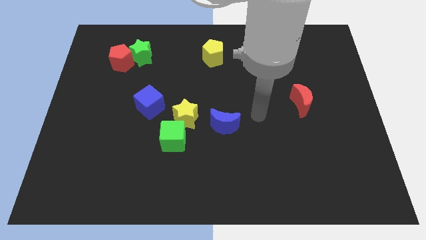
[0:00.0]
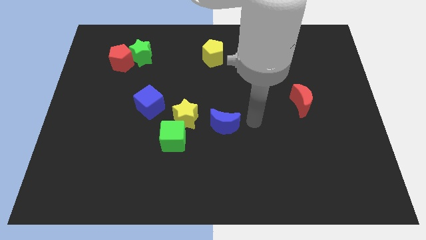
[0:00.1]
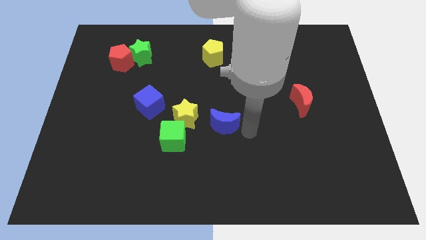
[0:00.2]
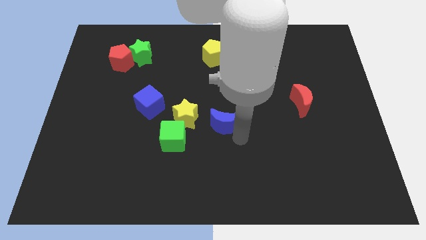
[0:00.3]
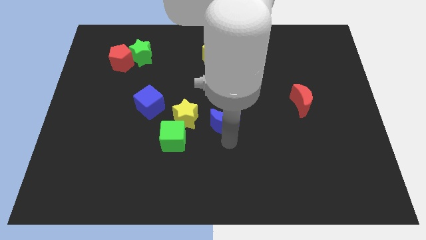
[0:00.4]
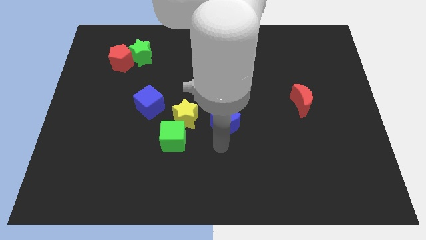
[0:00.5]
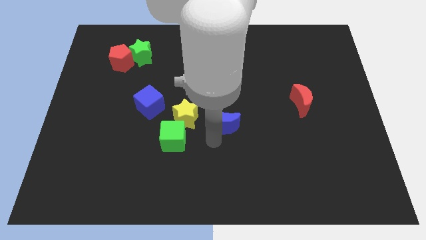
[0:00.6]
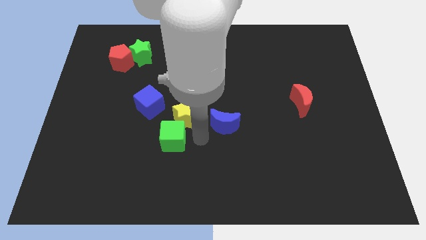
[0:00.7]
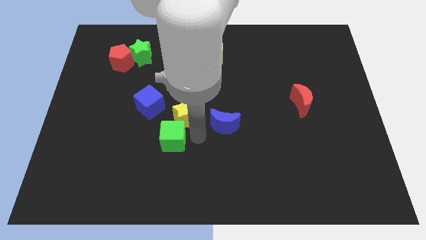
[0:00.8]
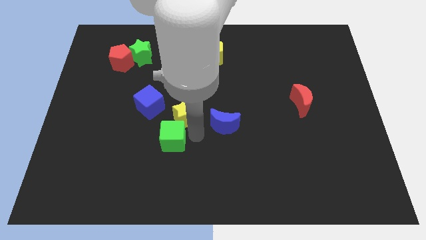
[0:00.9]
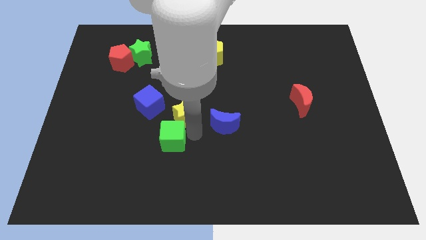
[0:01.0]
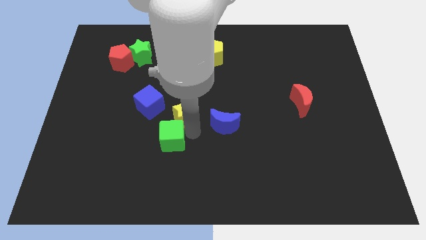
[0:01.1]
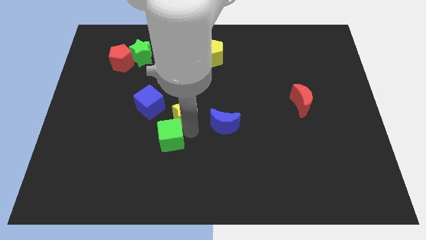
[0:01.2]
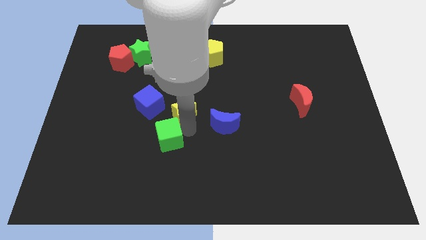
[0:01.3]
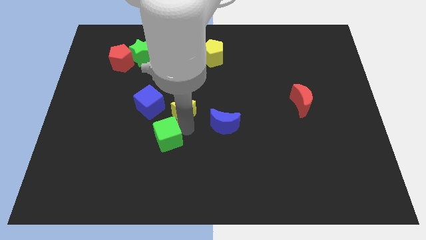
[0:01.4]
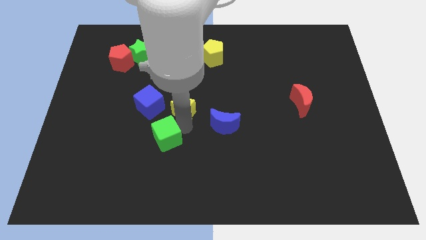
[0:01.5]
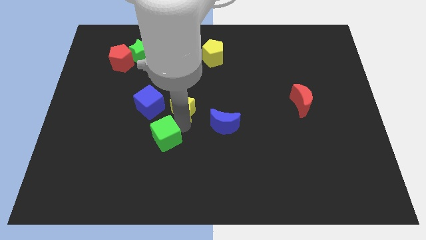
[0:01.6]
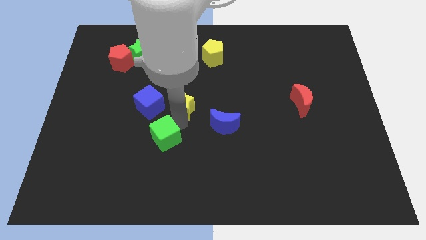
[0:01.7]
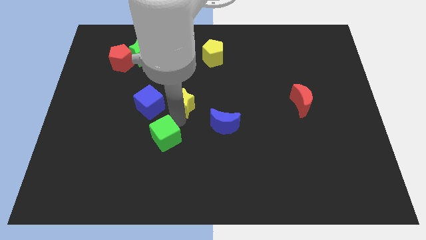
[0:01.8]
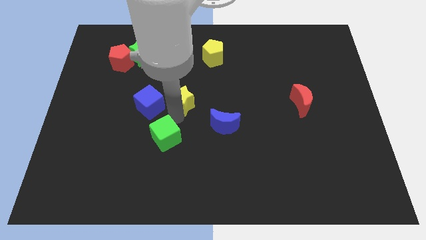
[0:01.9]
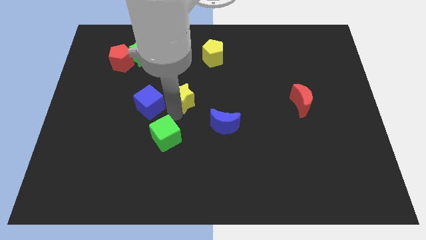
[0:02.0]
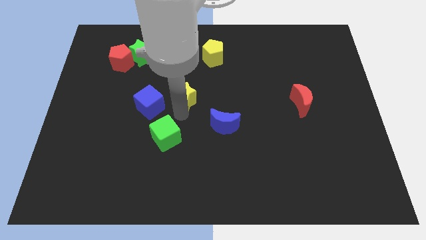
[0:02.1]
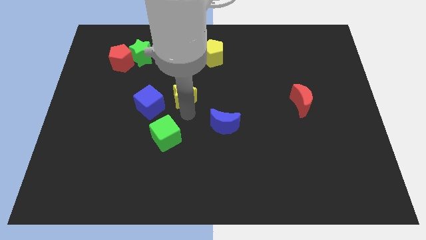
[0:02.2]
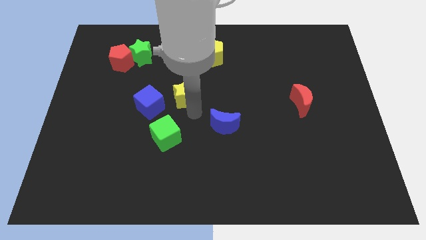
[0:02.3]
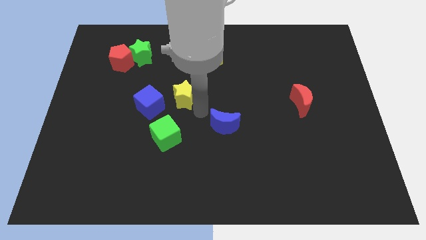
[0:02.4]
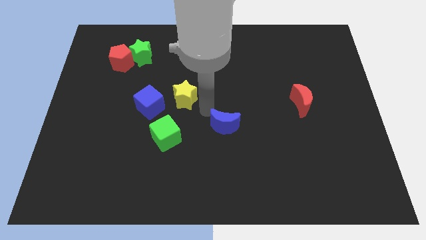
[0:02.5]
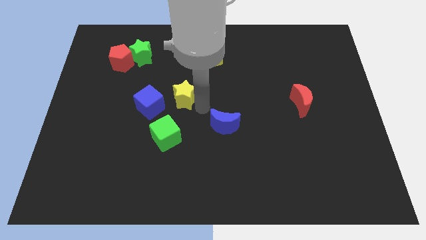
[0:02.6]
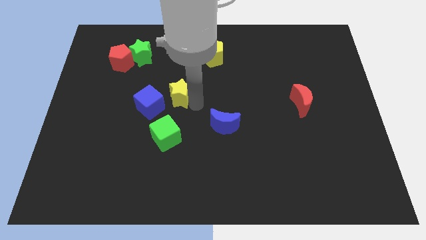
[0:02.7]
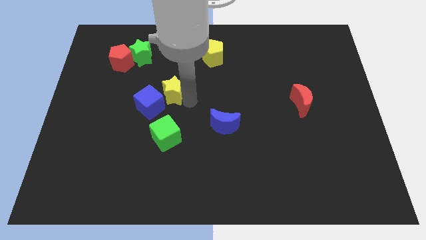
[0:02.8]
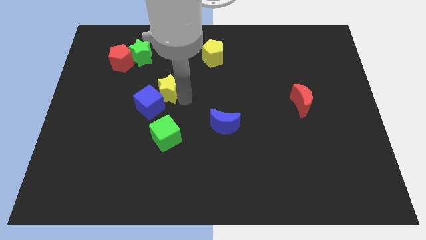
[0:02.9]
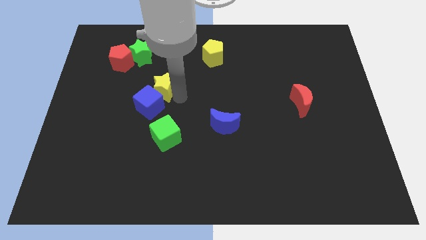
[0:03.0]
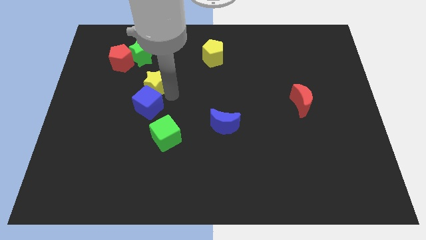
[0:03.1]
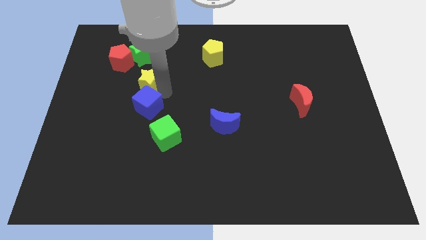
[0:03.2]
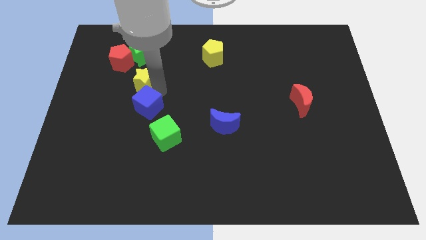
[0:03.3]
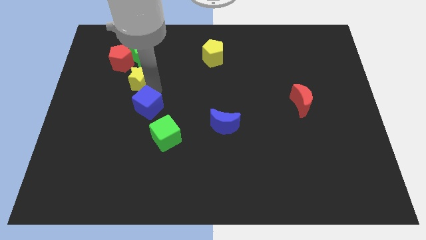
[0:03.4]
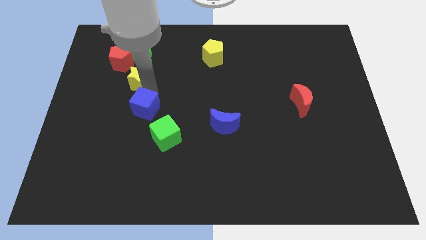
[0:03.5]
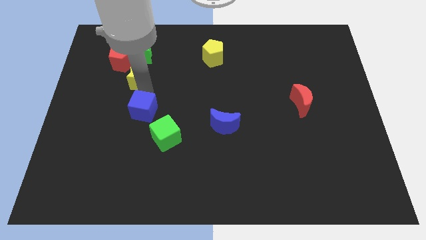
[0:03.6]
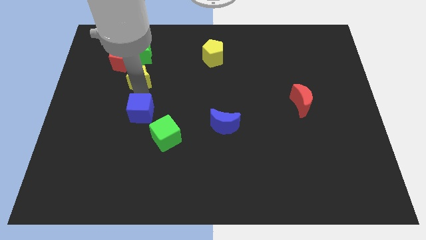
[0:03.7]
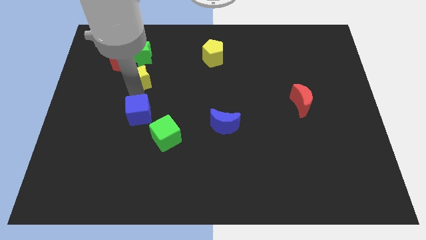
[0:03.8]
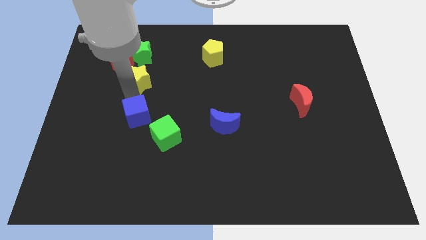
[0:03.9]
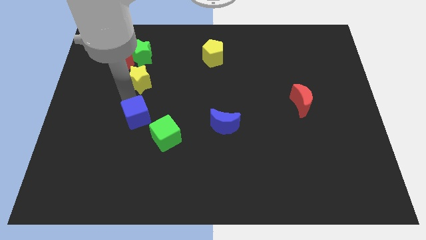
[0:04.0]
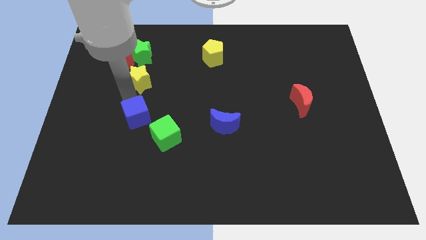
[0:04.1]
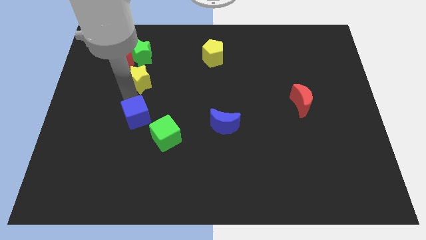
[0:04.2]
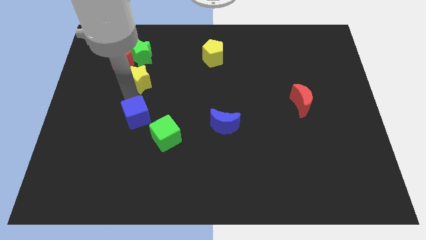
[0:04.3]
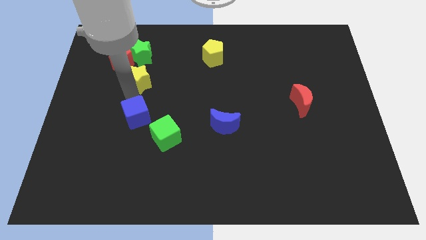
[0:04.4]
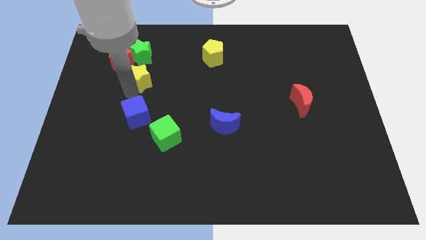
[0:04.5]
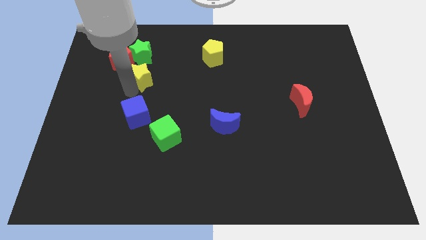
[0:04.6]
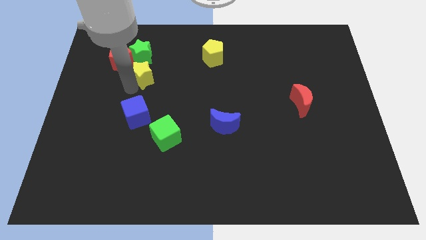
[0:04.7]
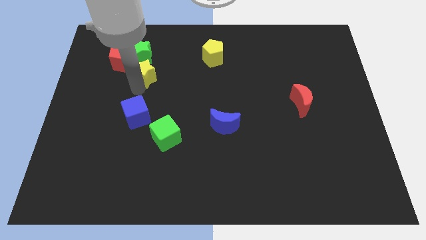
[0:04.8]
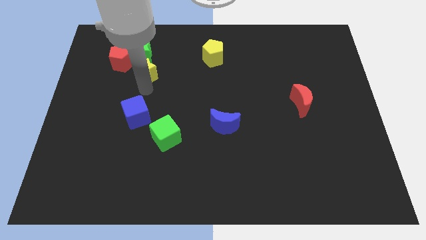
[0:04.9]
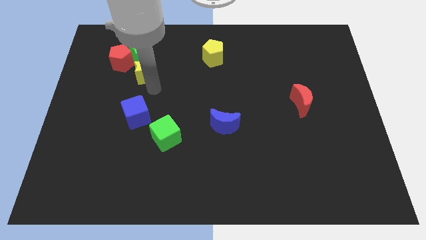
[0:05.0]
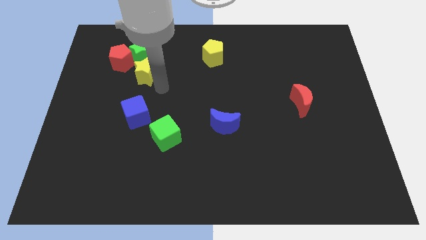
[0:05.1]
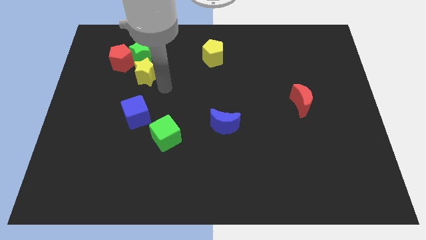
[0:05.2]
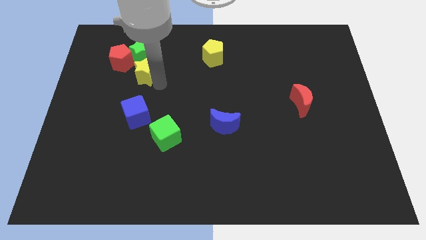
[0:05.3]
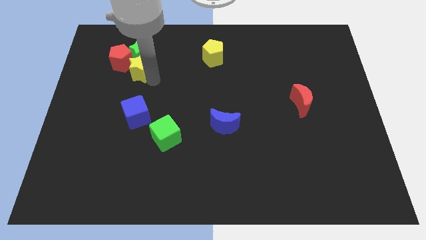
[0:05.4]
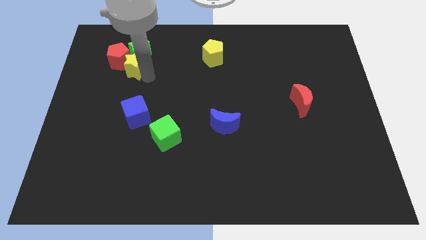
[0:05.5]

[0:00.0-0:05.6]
put the yellow star next to the red pentagon

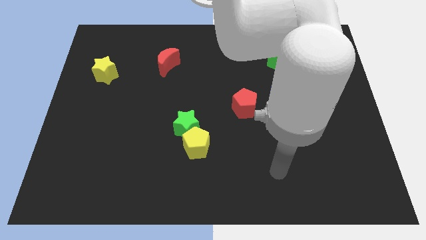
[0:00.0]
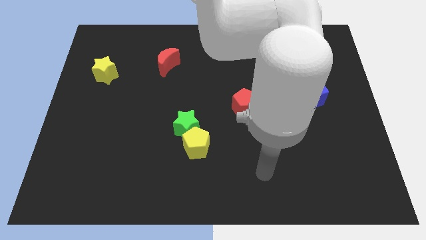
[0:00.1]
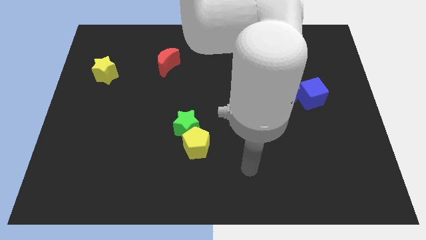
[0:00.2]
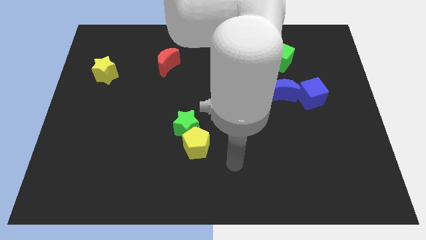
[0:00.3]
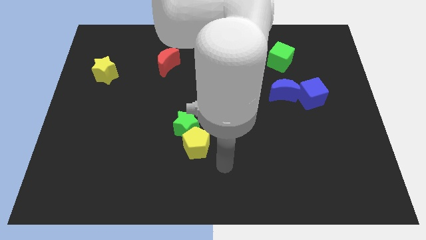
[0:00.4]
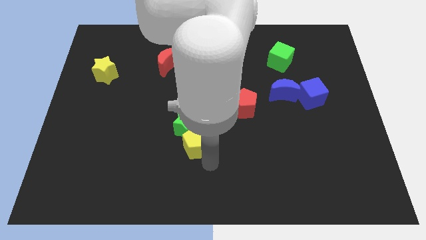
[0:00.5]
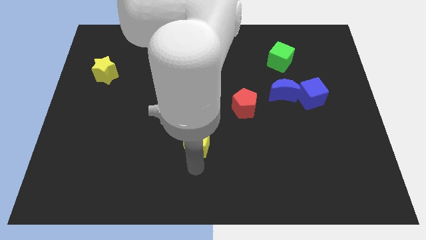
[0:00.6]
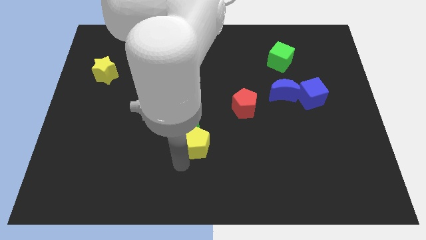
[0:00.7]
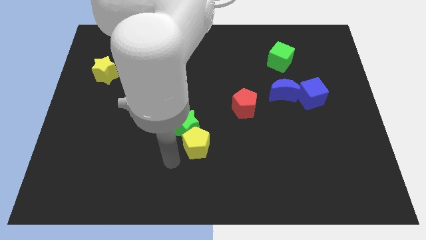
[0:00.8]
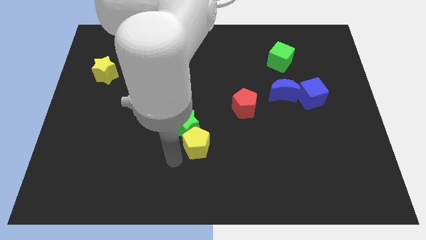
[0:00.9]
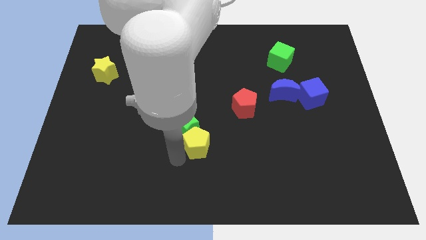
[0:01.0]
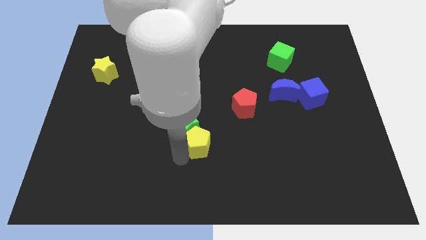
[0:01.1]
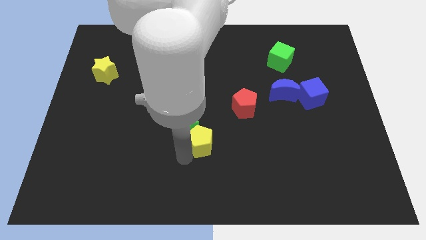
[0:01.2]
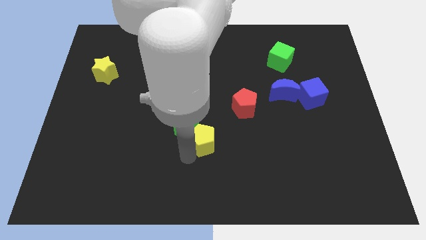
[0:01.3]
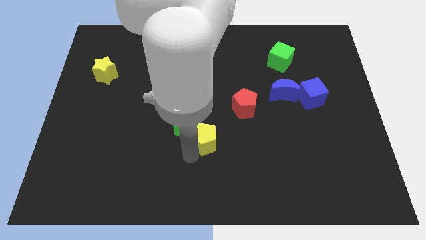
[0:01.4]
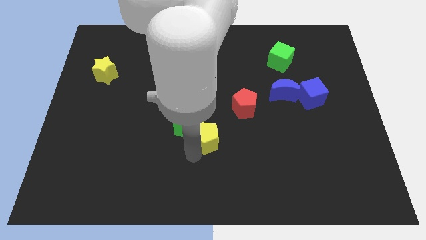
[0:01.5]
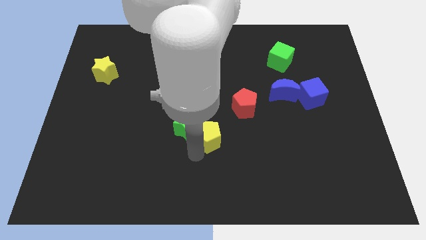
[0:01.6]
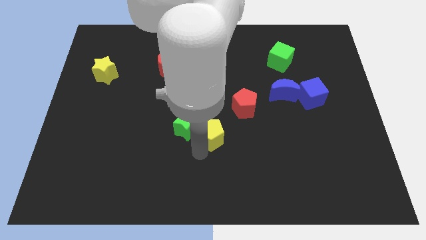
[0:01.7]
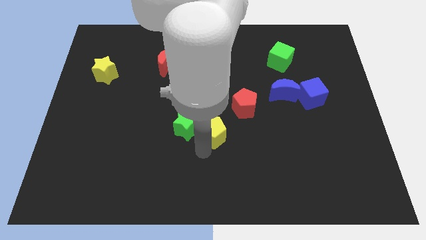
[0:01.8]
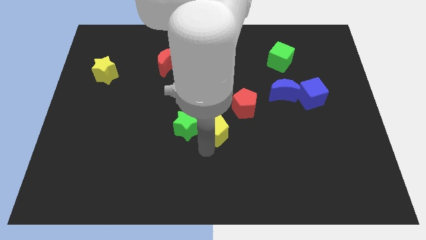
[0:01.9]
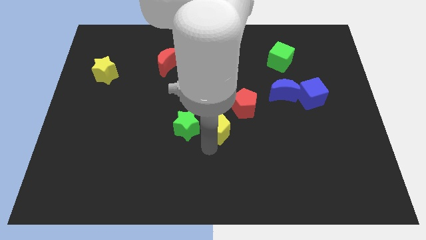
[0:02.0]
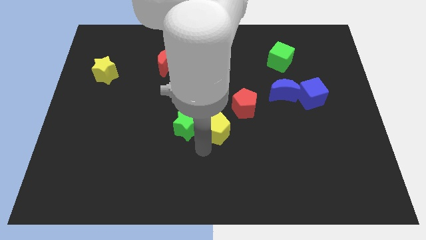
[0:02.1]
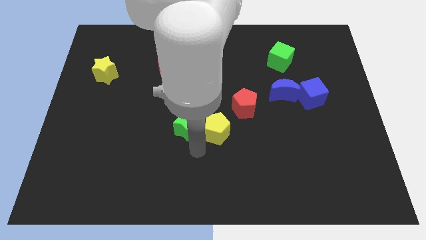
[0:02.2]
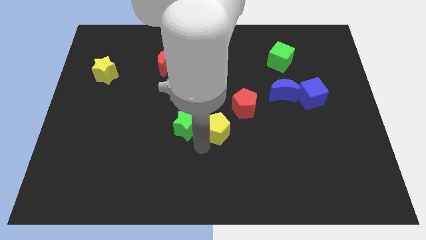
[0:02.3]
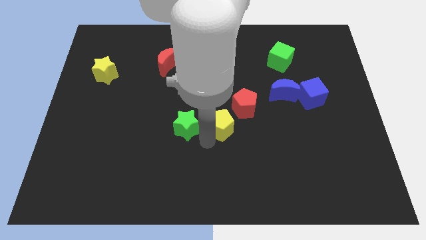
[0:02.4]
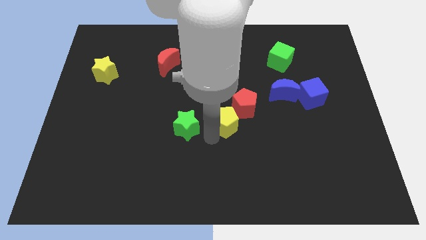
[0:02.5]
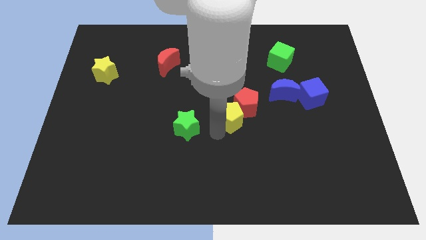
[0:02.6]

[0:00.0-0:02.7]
put the yellow pentagon close to the red pentagon
